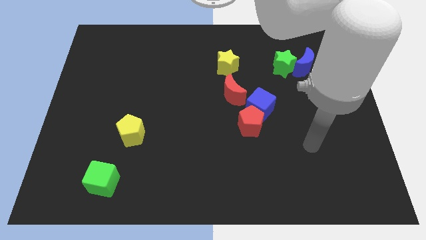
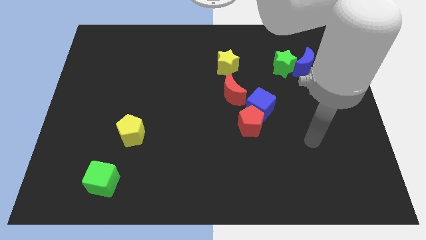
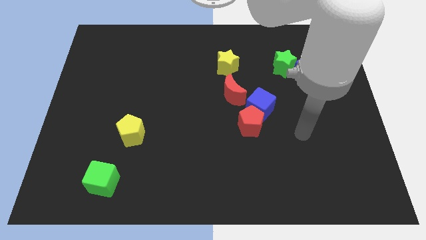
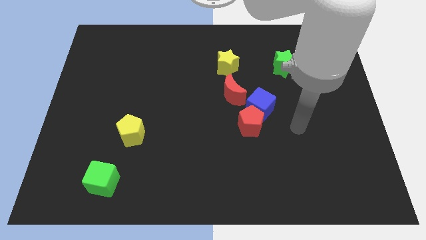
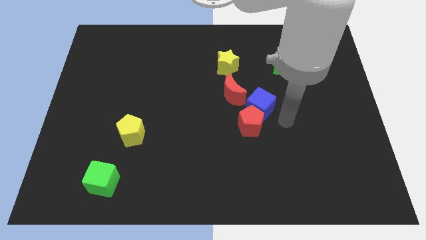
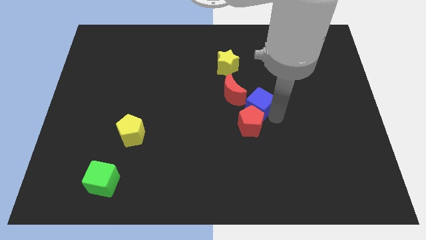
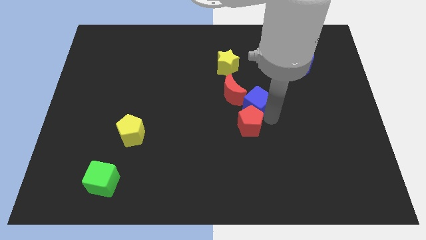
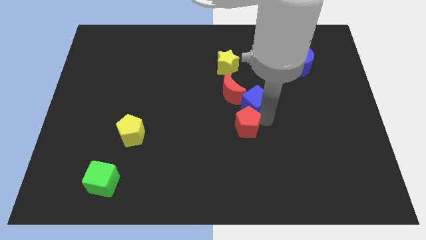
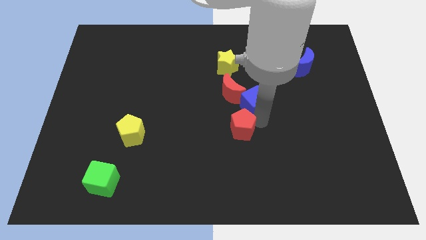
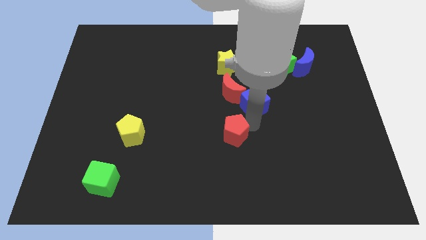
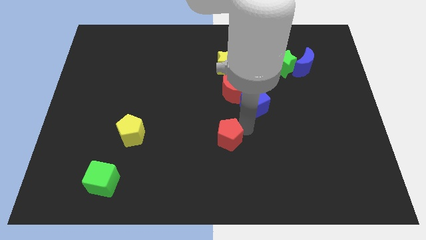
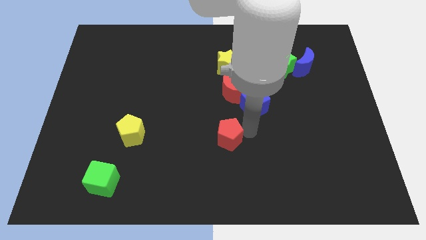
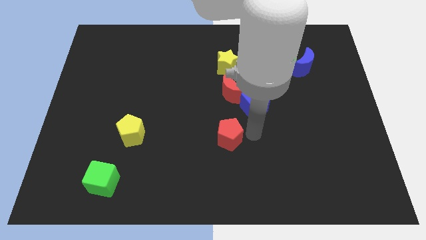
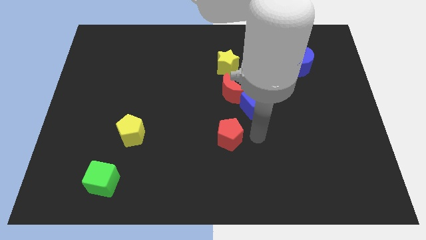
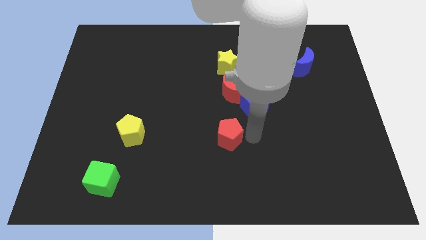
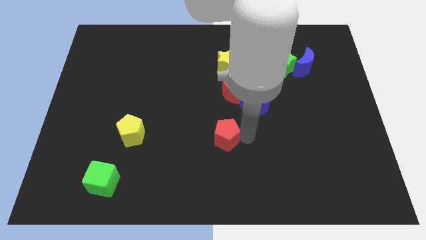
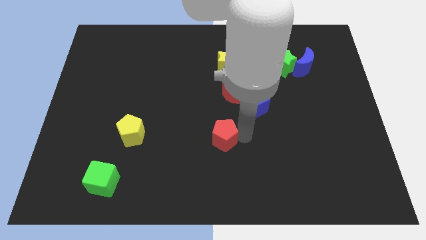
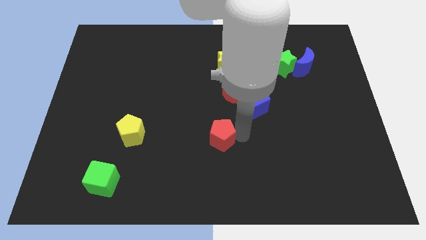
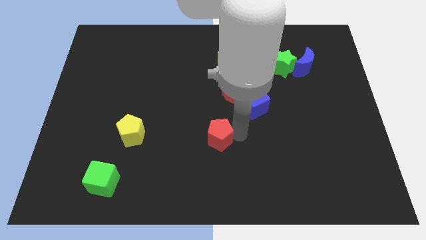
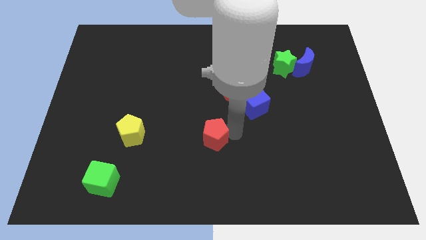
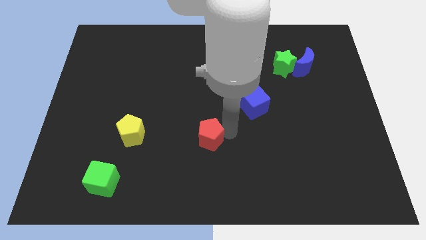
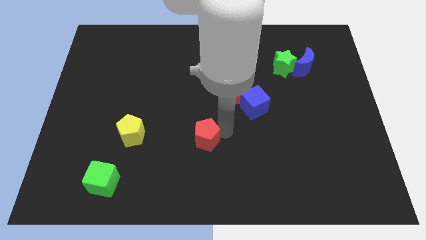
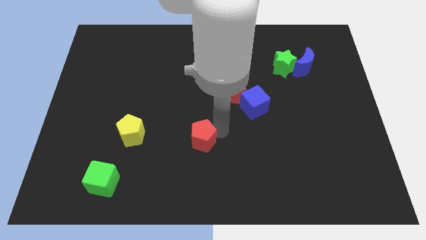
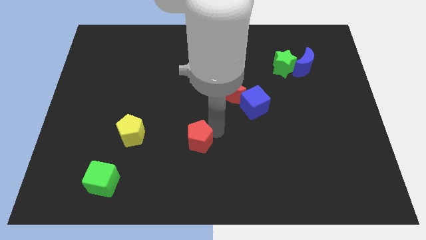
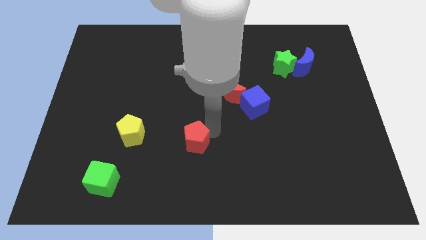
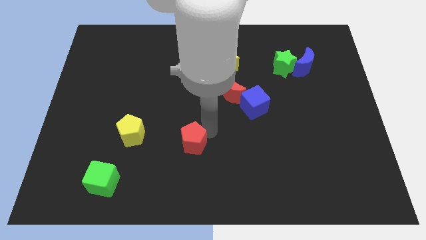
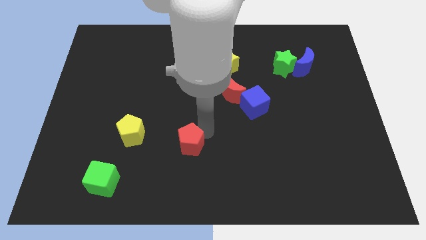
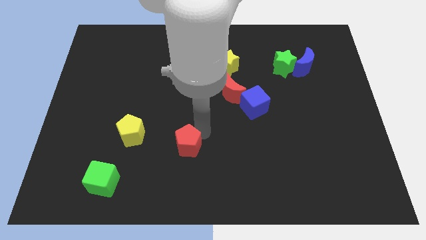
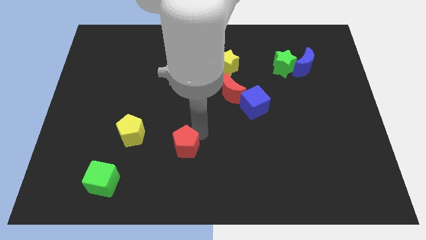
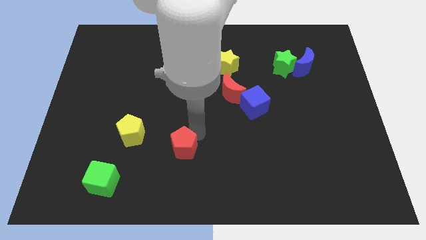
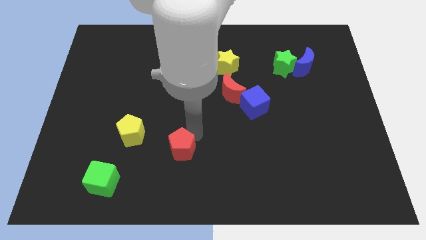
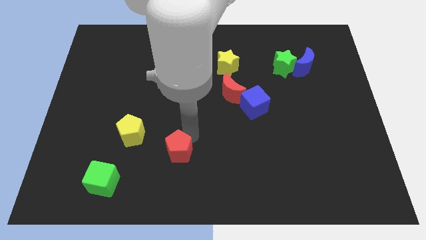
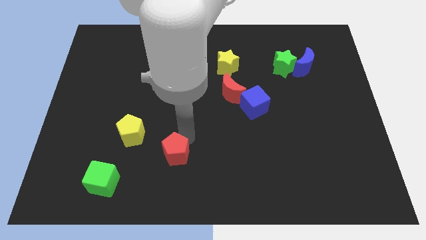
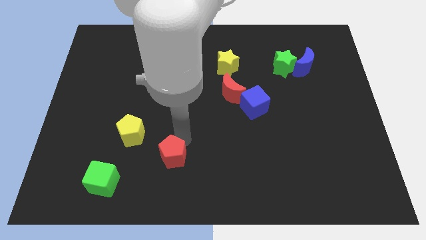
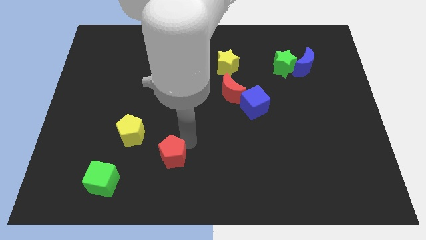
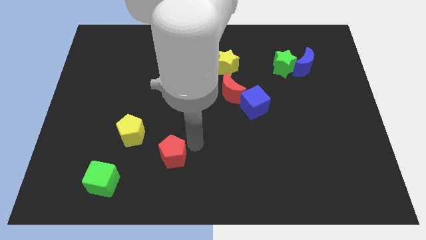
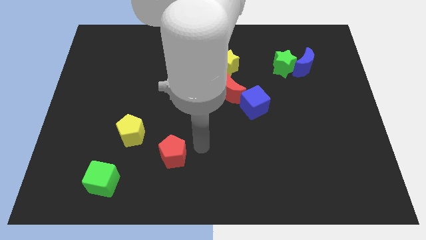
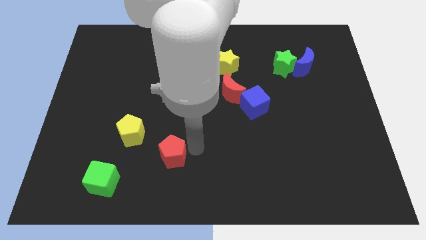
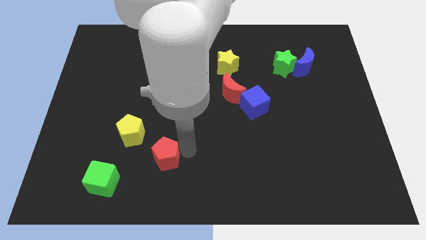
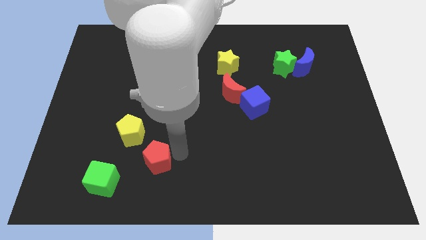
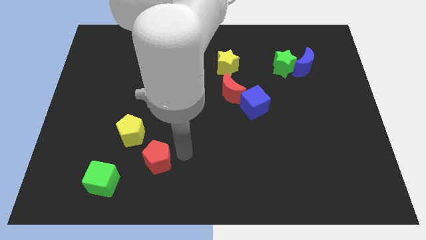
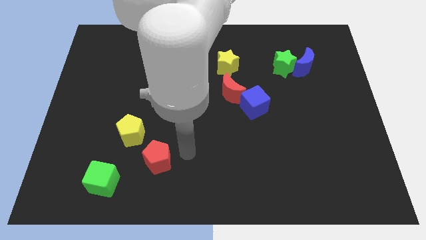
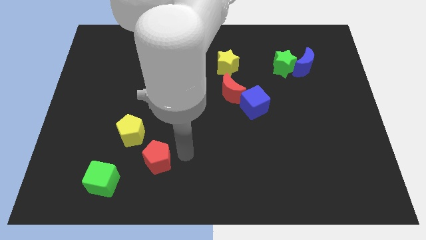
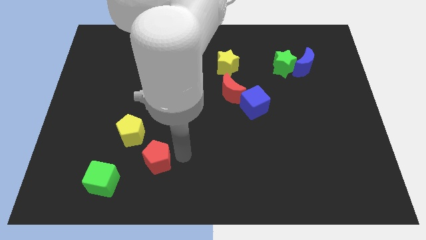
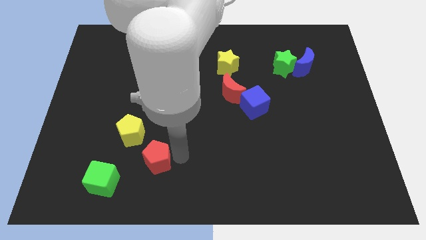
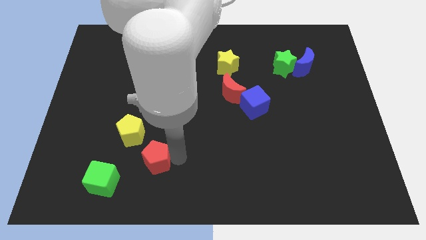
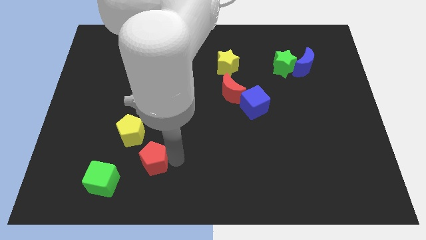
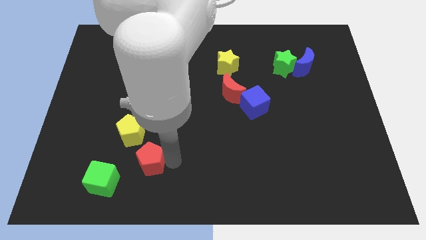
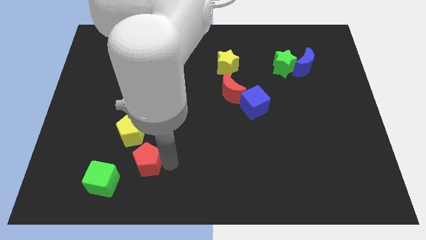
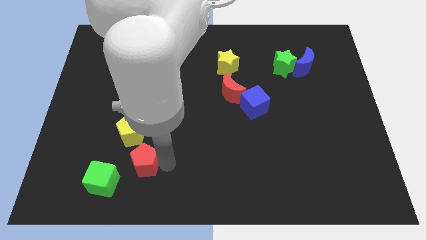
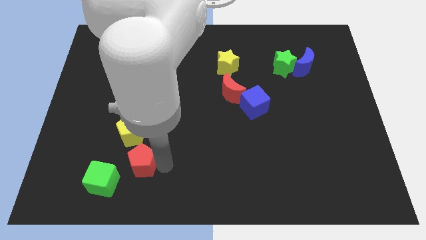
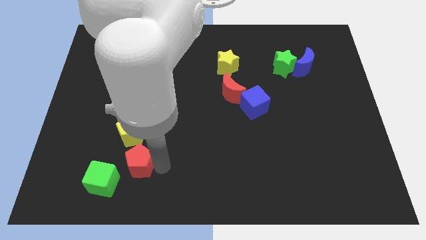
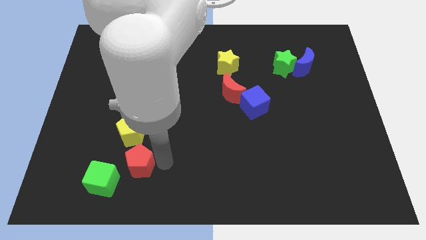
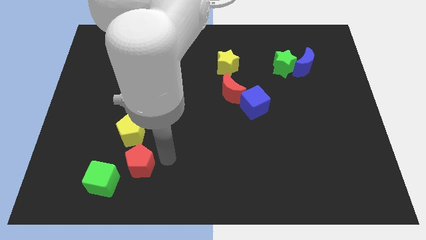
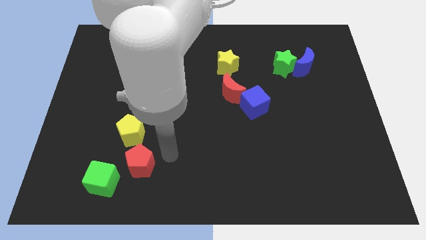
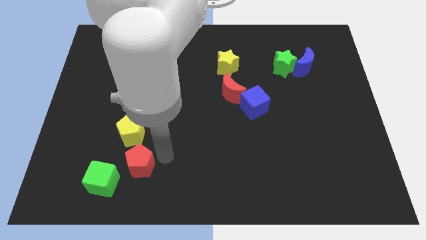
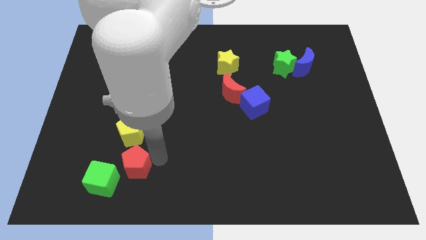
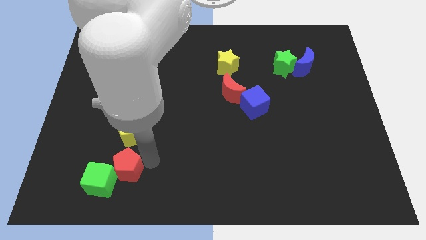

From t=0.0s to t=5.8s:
push the red pentagon towards the green cube

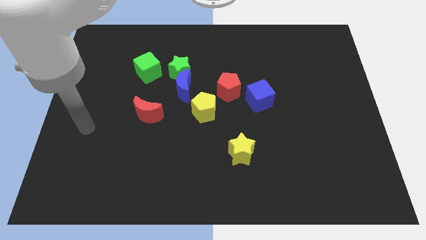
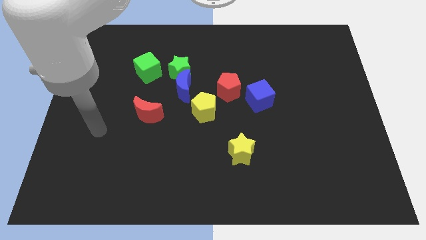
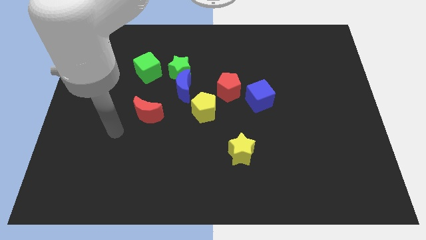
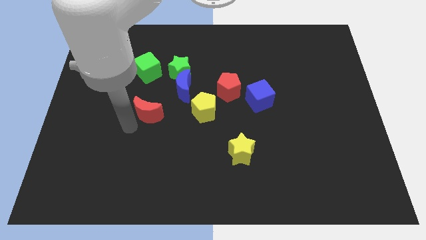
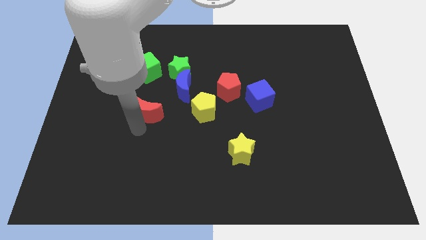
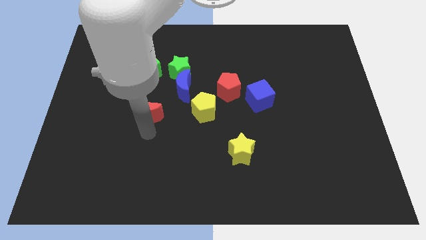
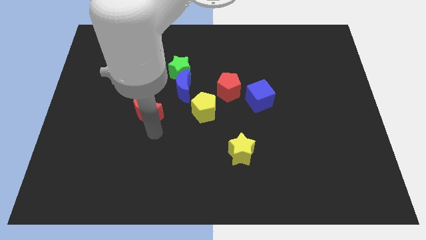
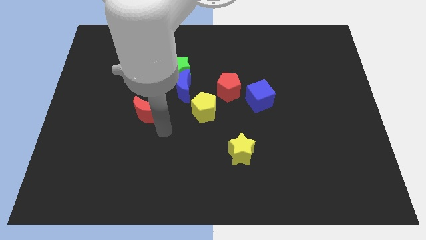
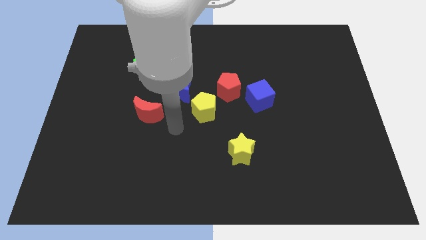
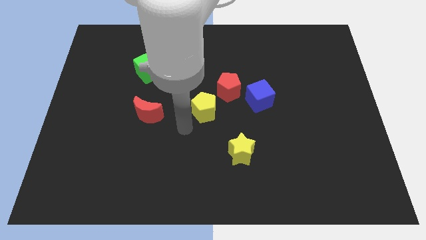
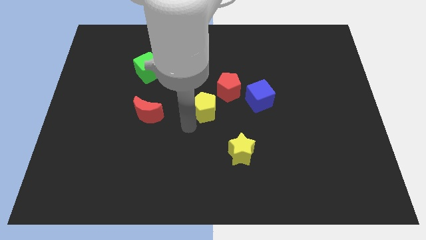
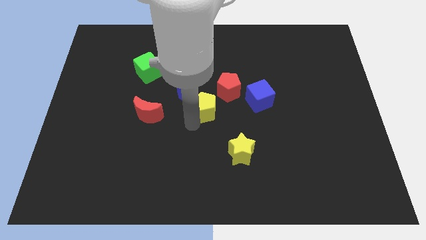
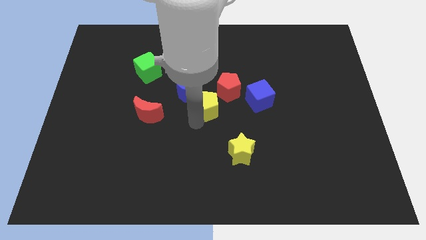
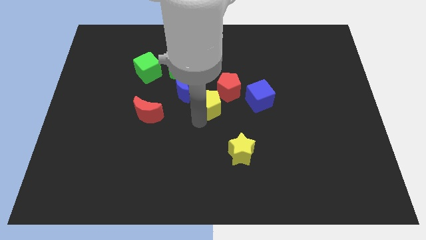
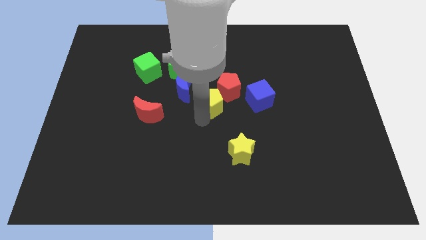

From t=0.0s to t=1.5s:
move the yellow pentagon next to the red pentagon
